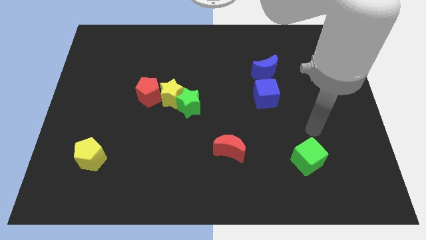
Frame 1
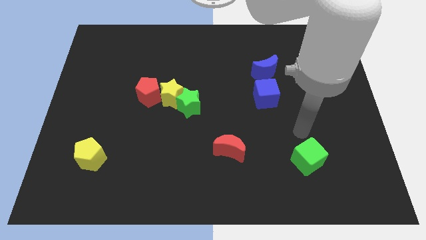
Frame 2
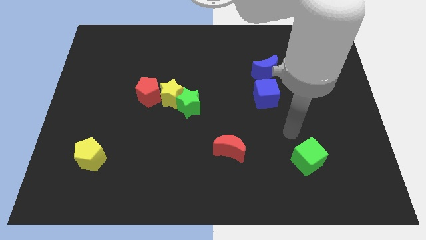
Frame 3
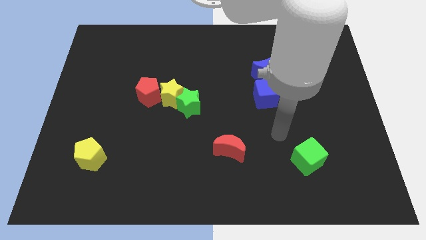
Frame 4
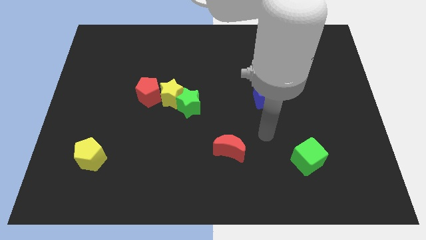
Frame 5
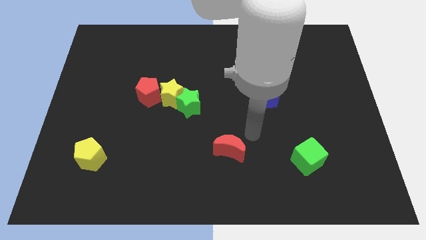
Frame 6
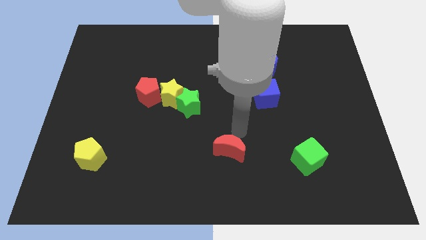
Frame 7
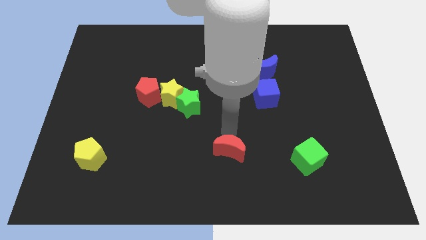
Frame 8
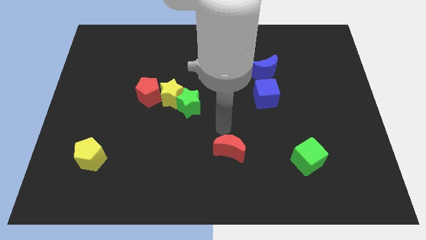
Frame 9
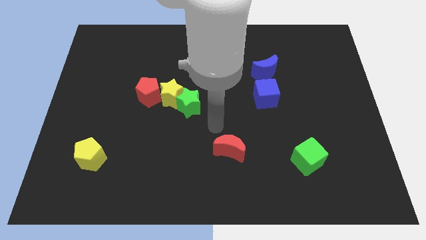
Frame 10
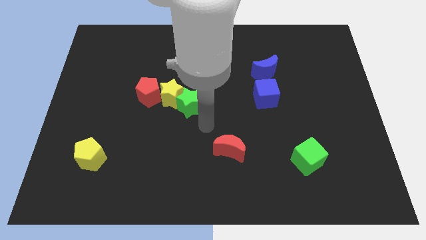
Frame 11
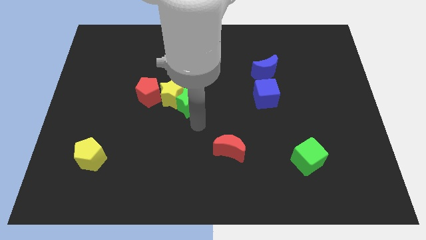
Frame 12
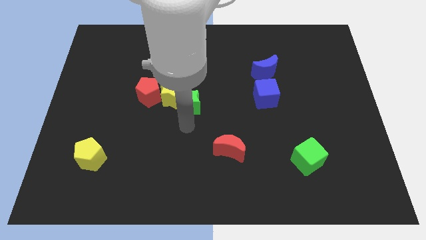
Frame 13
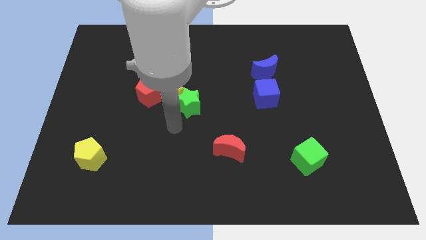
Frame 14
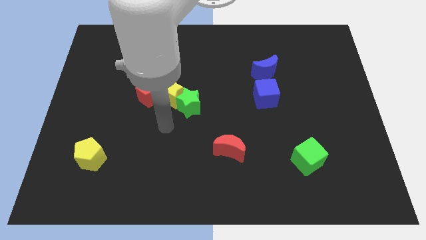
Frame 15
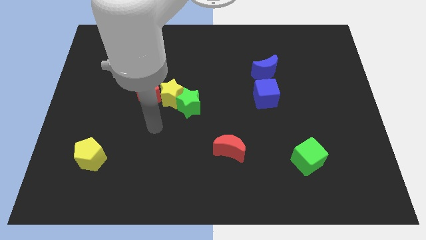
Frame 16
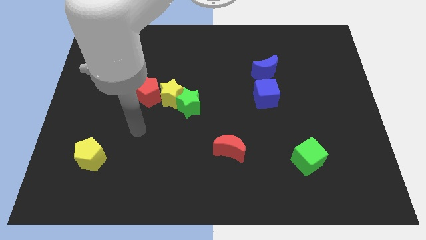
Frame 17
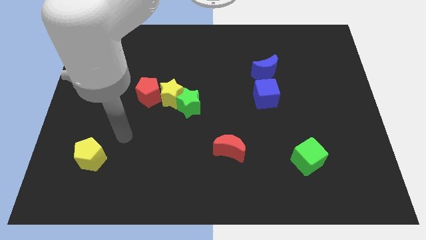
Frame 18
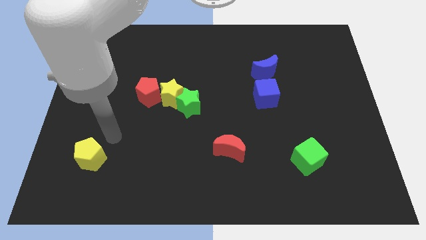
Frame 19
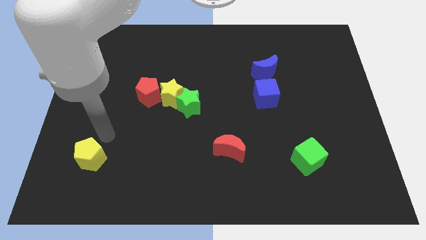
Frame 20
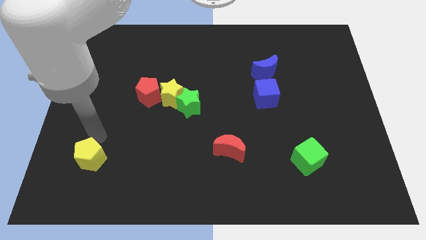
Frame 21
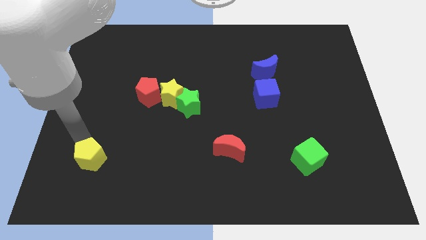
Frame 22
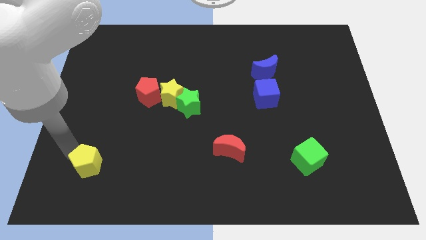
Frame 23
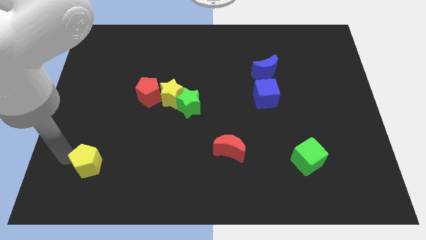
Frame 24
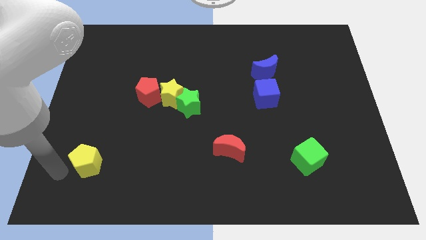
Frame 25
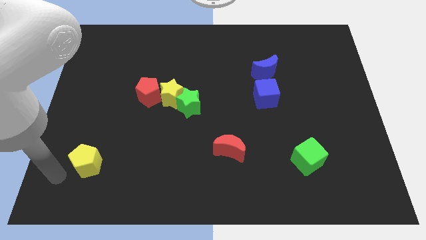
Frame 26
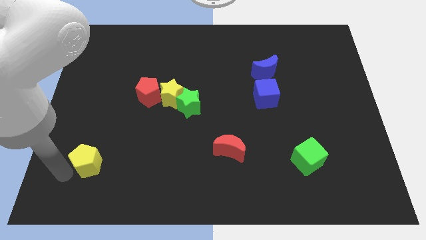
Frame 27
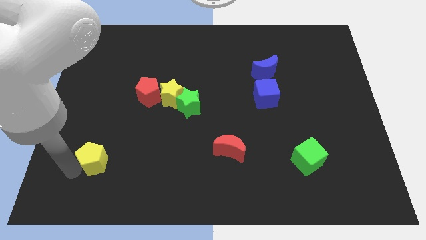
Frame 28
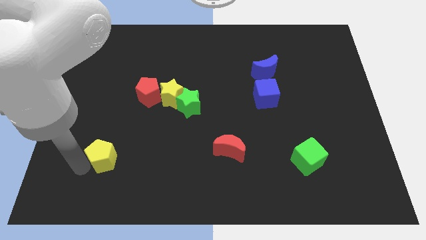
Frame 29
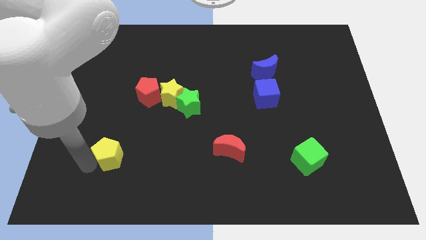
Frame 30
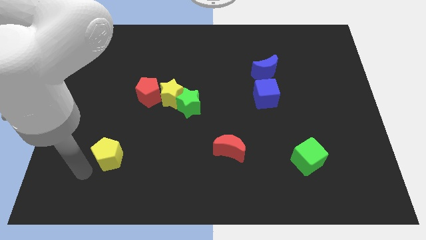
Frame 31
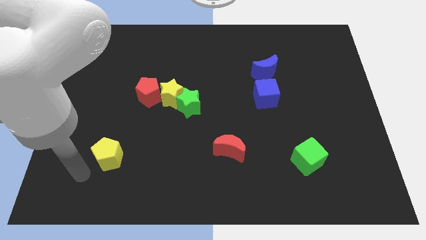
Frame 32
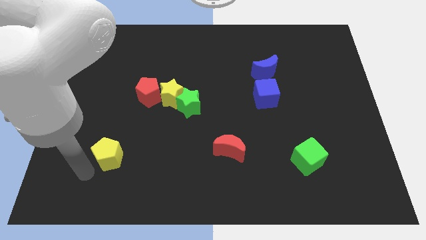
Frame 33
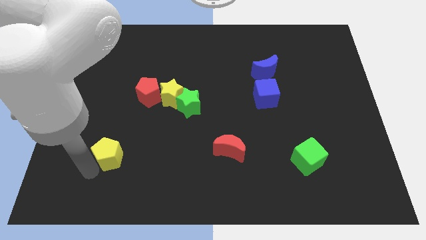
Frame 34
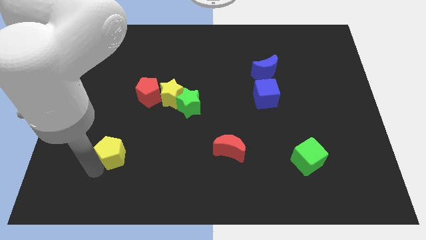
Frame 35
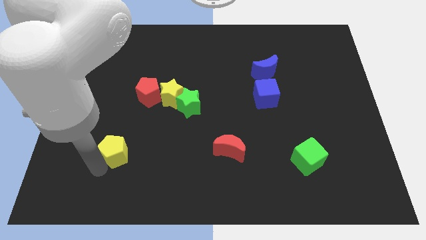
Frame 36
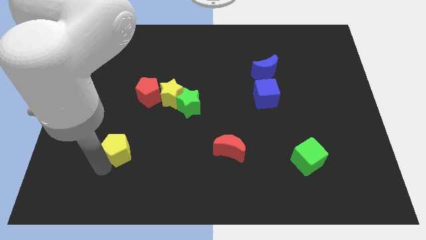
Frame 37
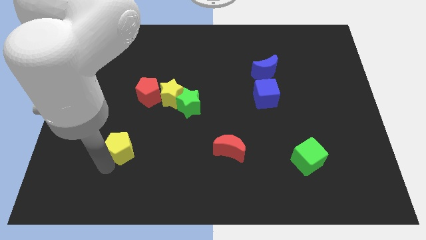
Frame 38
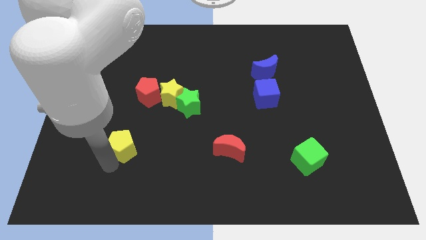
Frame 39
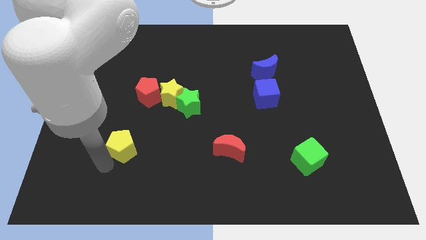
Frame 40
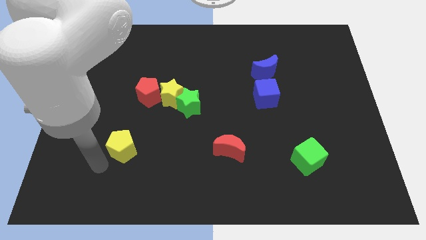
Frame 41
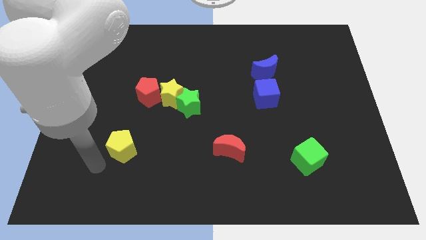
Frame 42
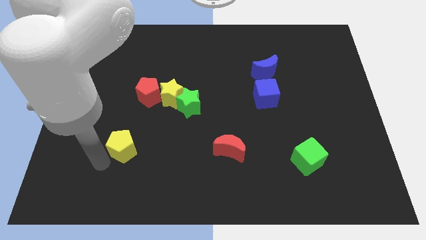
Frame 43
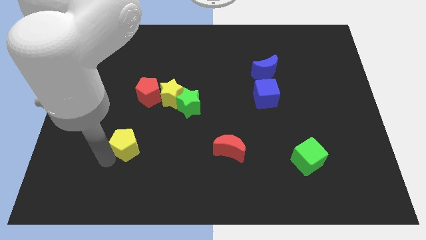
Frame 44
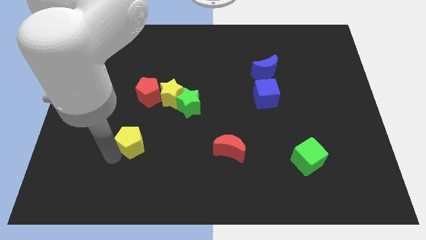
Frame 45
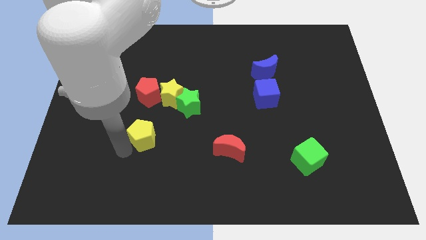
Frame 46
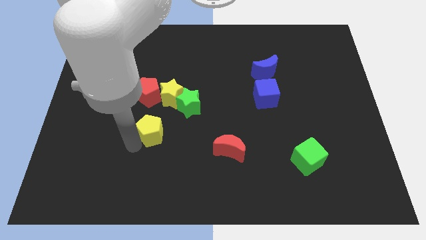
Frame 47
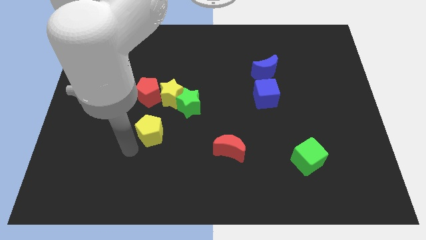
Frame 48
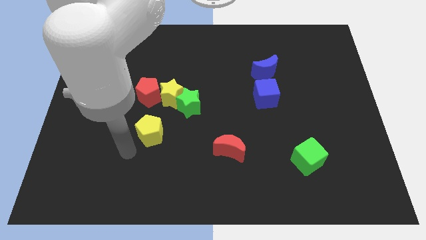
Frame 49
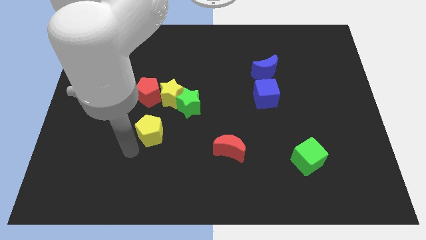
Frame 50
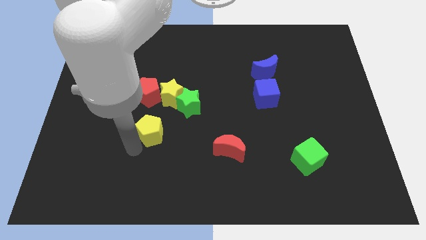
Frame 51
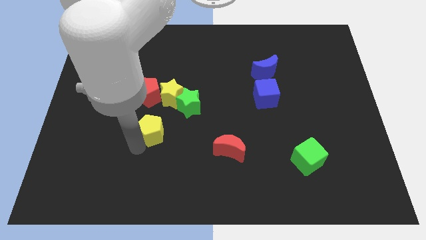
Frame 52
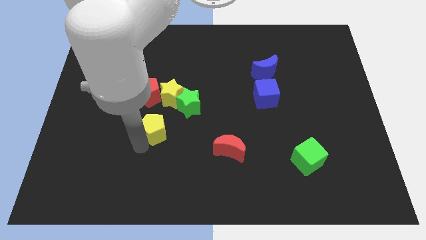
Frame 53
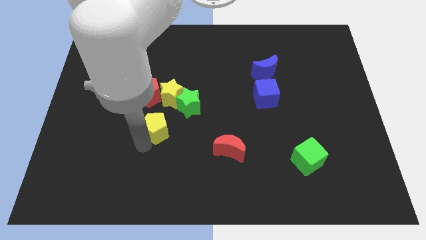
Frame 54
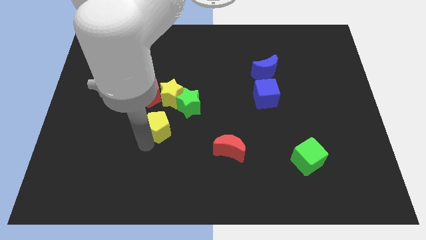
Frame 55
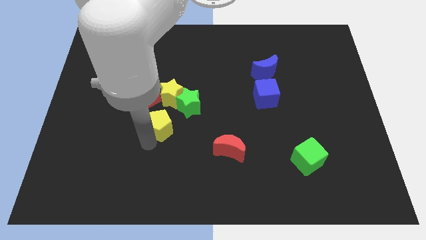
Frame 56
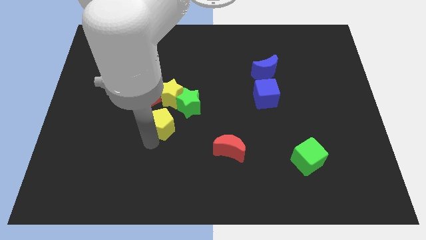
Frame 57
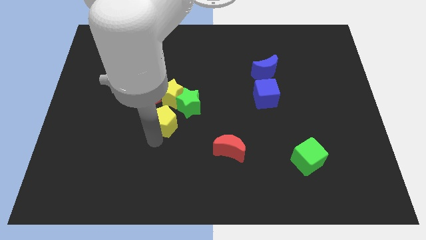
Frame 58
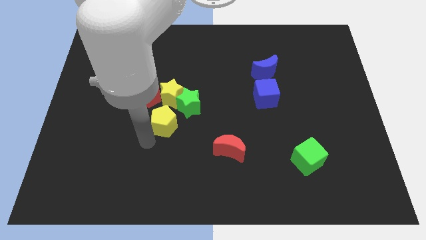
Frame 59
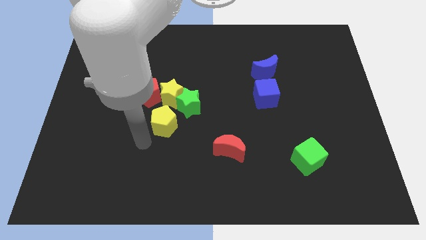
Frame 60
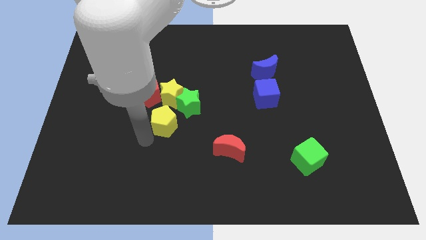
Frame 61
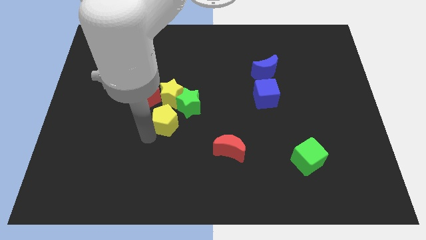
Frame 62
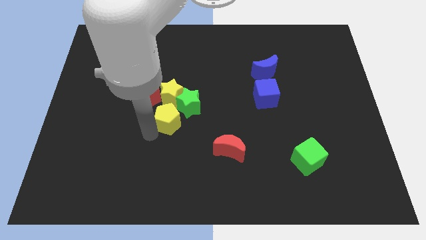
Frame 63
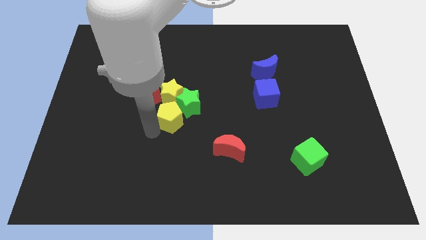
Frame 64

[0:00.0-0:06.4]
push the yellow pentagon to the green star

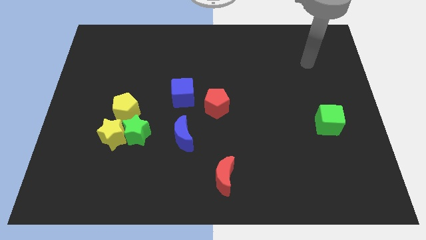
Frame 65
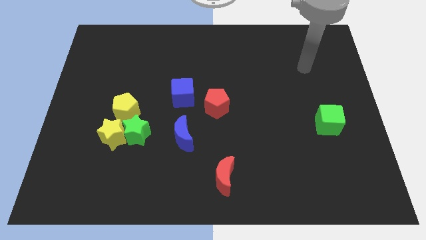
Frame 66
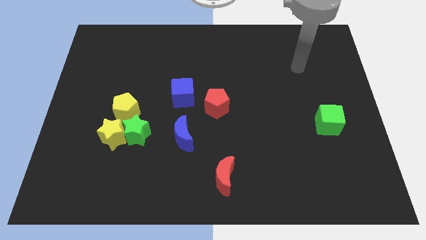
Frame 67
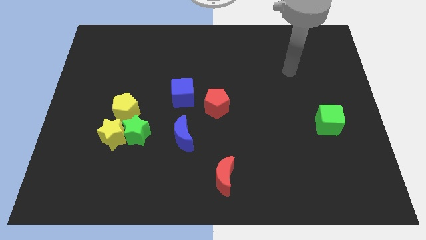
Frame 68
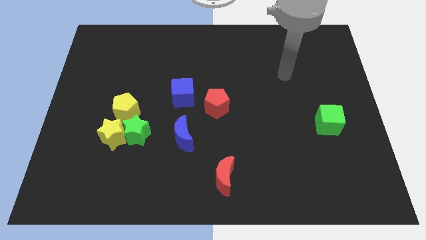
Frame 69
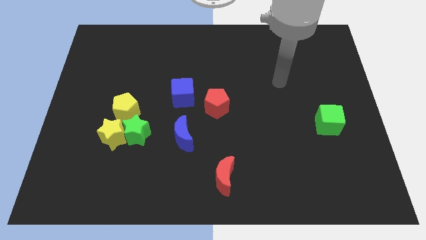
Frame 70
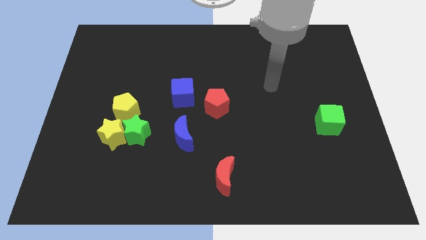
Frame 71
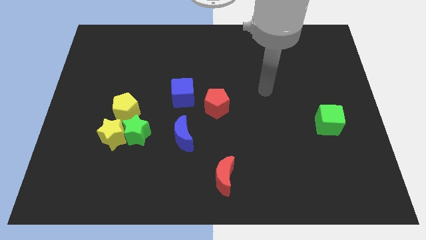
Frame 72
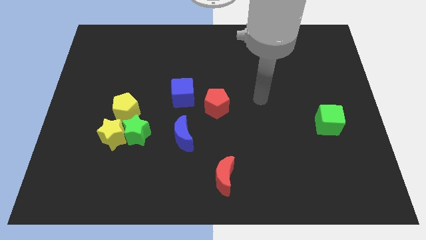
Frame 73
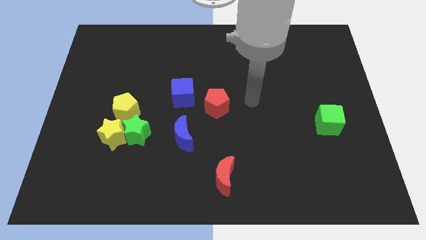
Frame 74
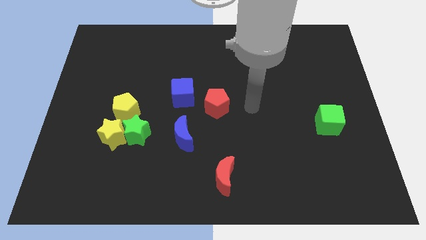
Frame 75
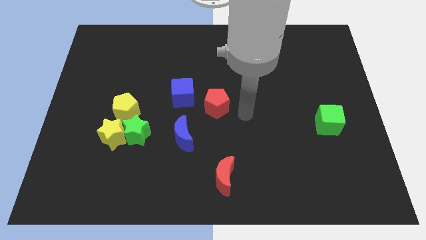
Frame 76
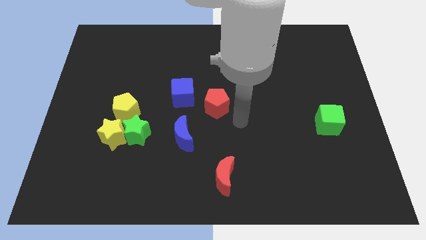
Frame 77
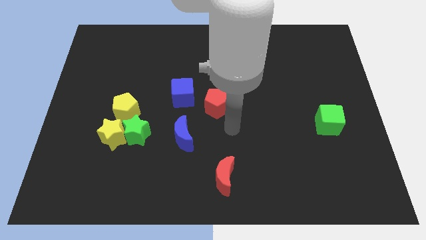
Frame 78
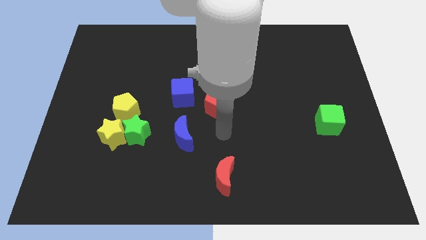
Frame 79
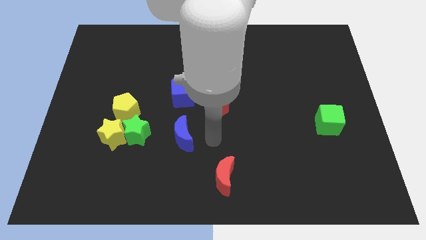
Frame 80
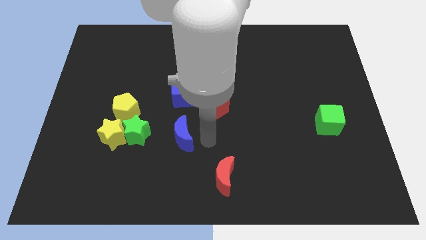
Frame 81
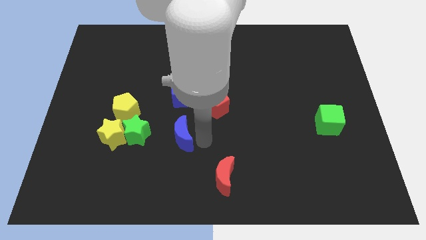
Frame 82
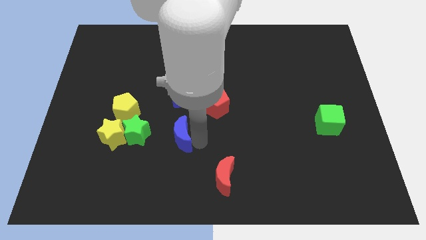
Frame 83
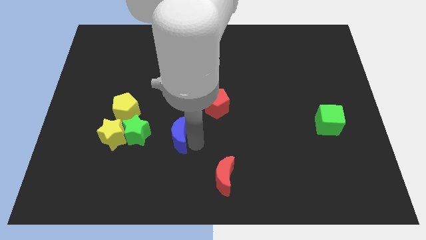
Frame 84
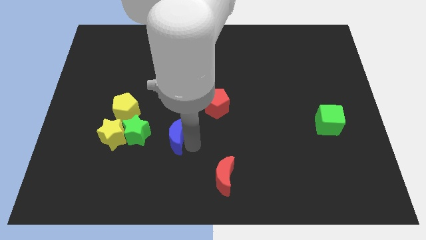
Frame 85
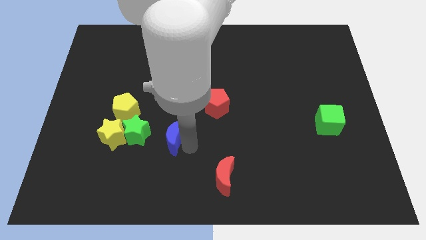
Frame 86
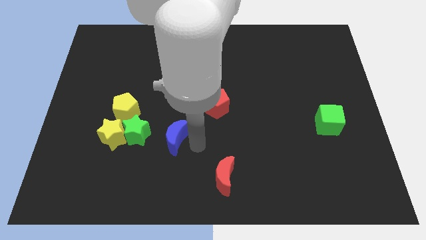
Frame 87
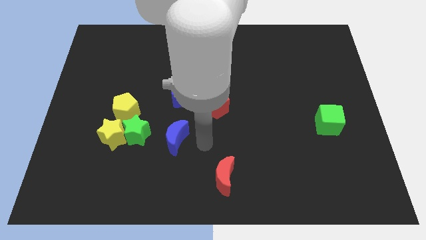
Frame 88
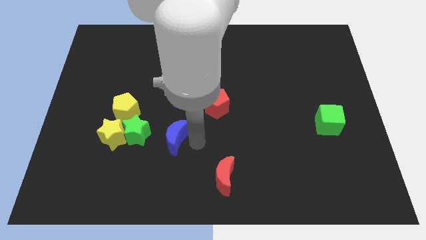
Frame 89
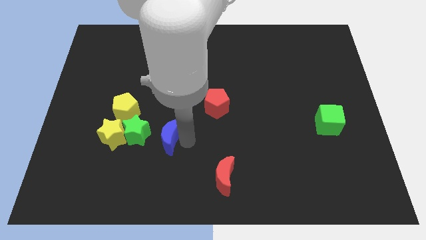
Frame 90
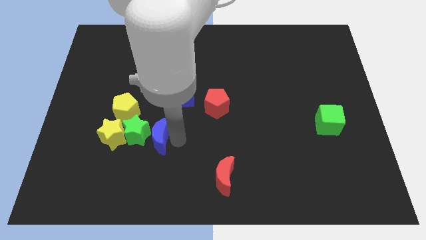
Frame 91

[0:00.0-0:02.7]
slide the blue moon close to the green star
